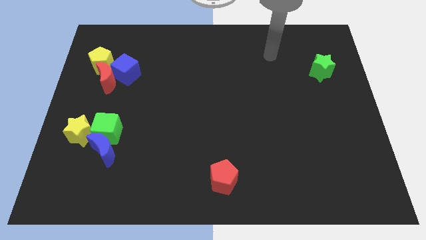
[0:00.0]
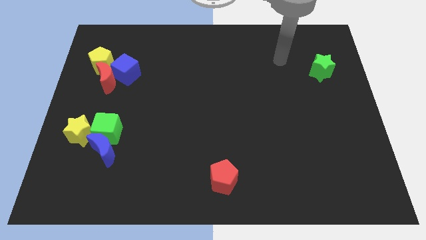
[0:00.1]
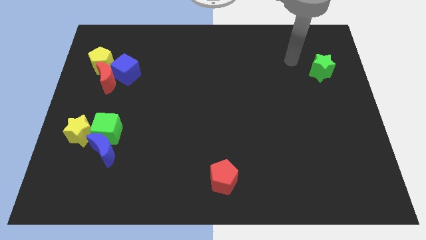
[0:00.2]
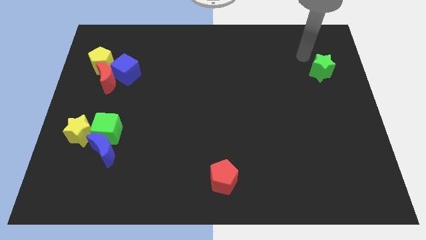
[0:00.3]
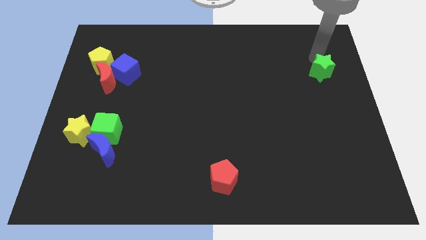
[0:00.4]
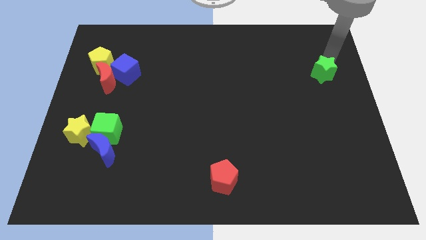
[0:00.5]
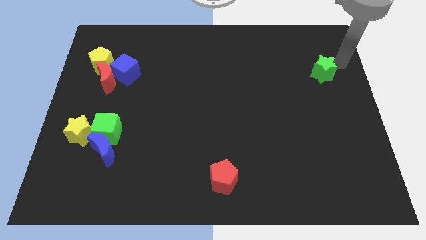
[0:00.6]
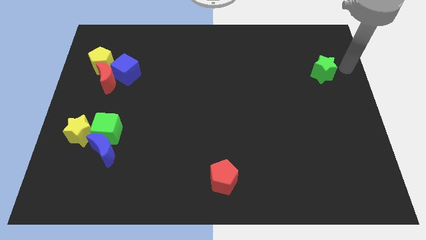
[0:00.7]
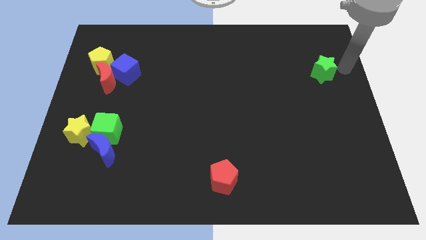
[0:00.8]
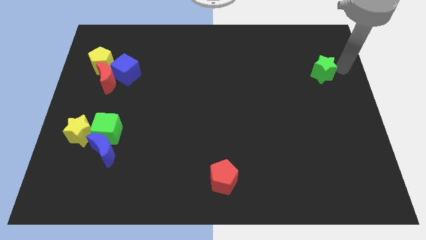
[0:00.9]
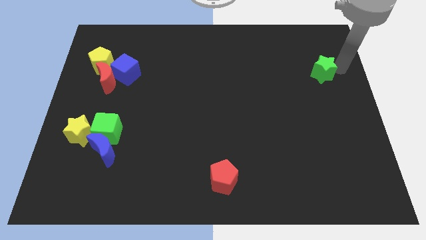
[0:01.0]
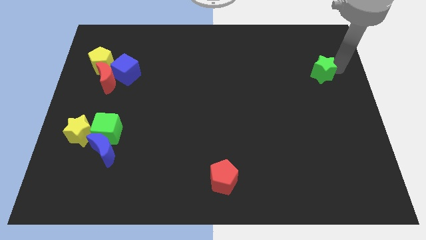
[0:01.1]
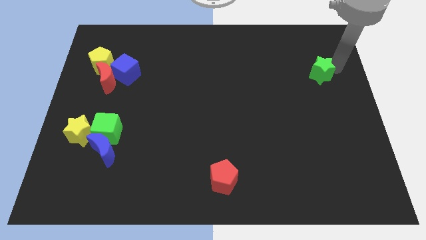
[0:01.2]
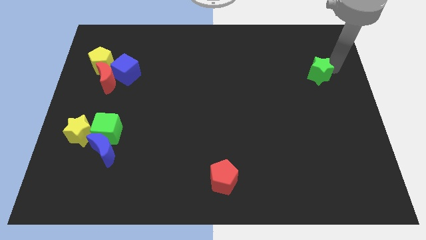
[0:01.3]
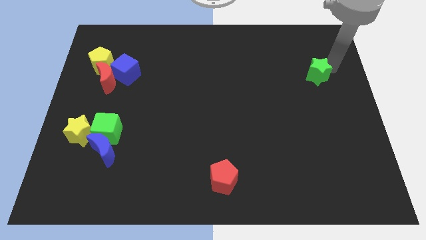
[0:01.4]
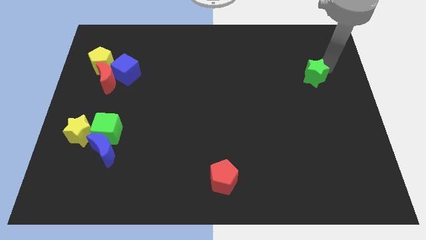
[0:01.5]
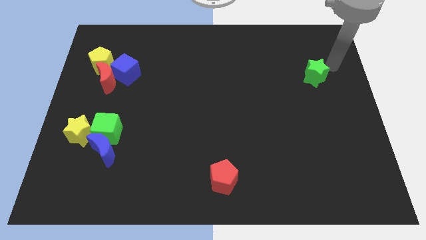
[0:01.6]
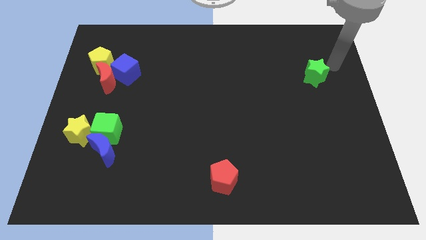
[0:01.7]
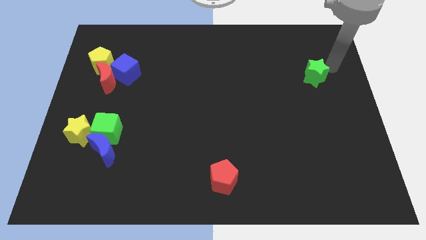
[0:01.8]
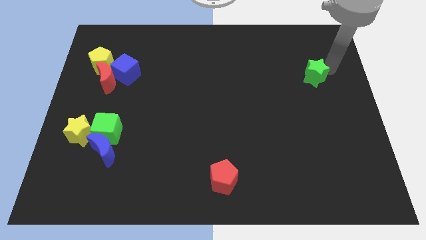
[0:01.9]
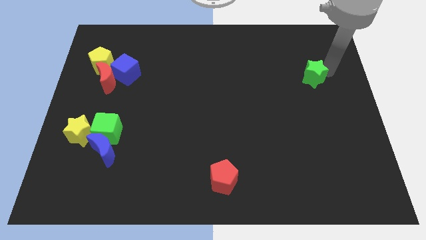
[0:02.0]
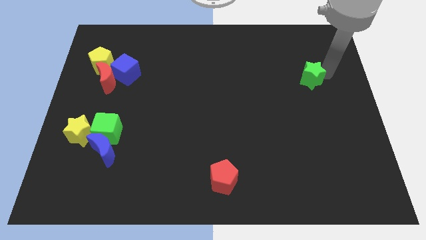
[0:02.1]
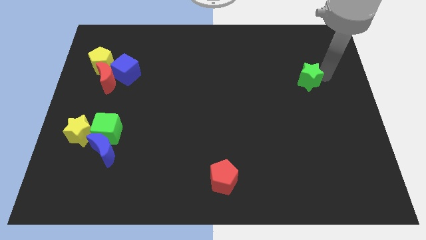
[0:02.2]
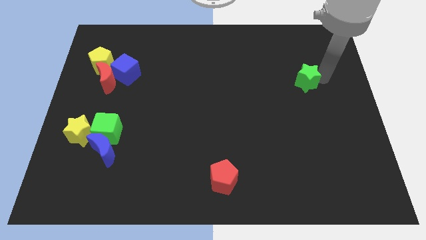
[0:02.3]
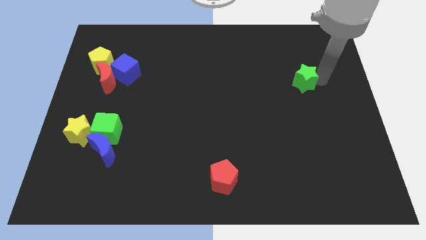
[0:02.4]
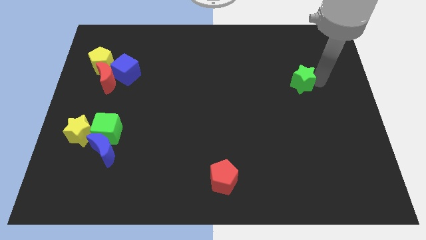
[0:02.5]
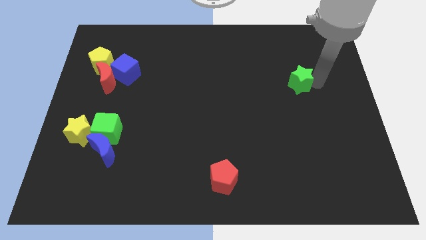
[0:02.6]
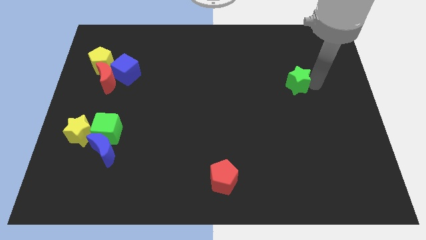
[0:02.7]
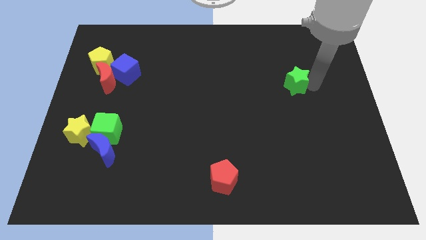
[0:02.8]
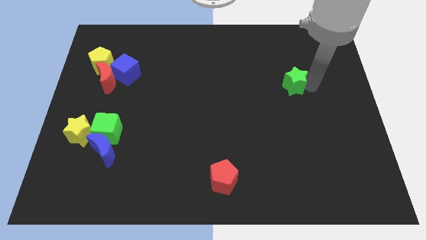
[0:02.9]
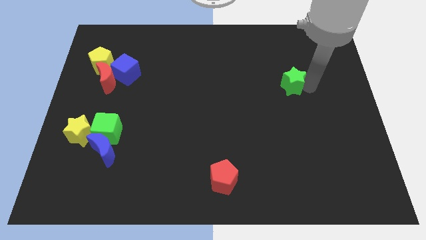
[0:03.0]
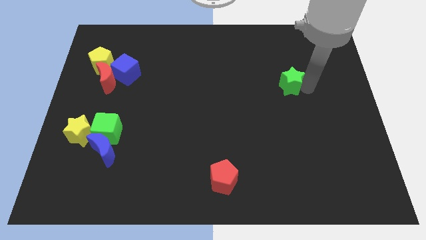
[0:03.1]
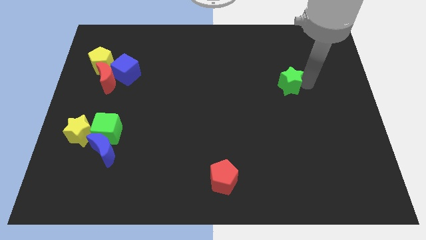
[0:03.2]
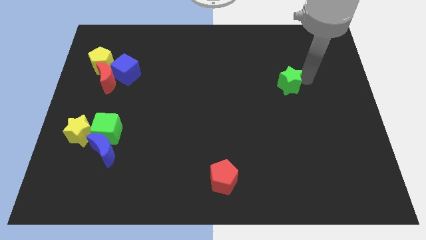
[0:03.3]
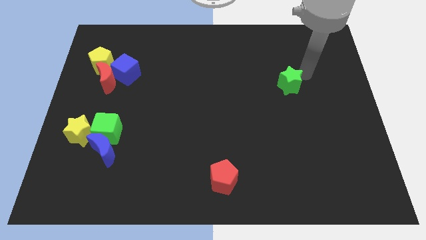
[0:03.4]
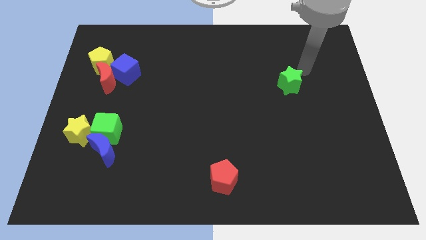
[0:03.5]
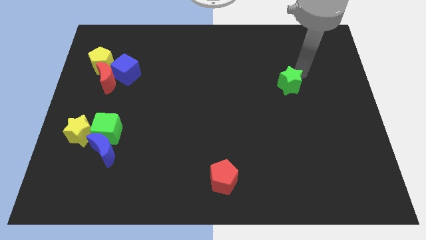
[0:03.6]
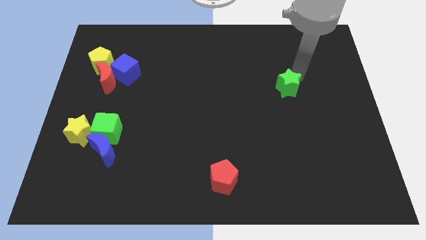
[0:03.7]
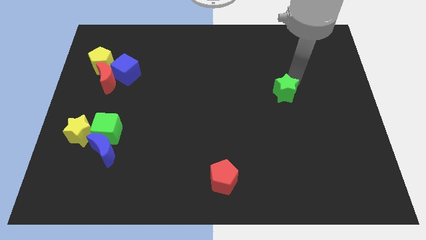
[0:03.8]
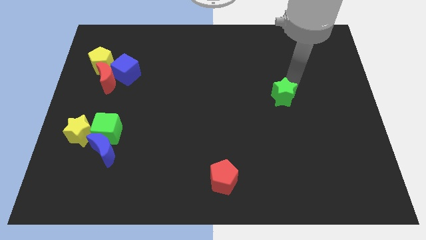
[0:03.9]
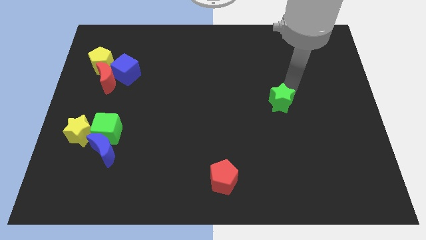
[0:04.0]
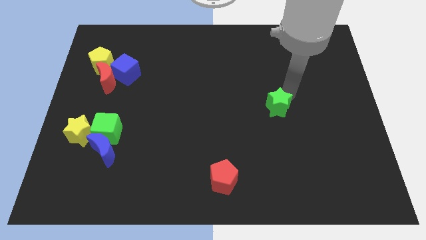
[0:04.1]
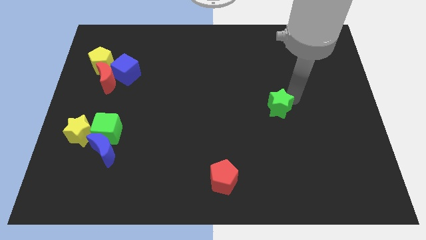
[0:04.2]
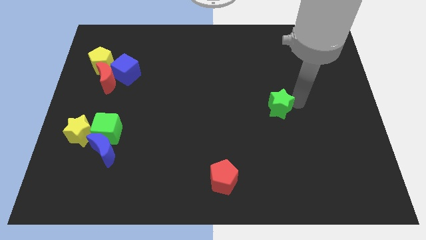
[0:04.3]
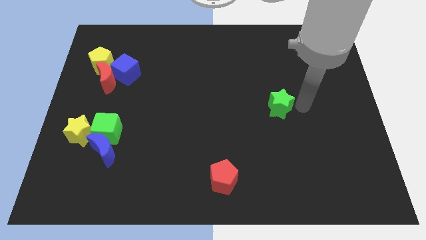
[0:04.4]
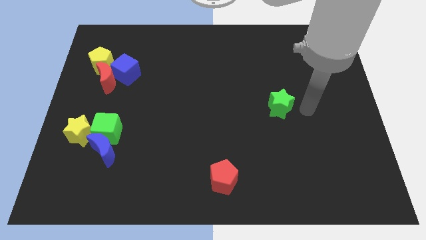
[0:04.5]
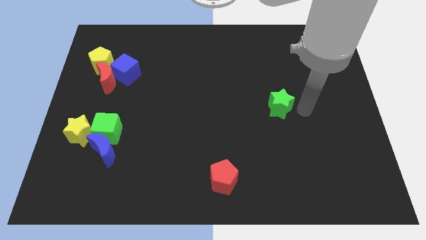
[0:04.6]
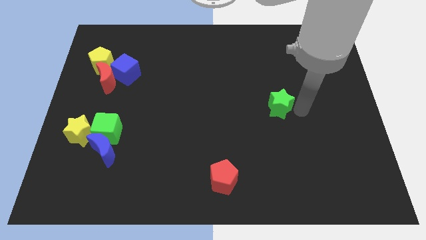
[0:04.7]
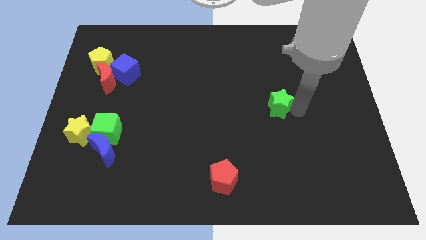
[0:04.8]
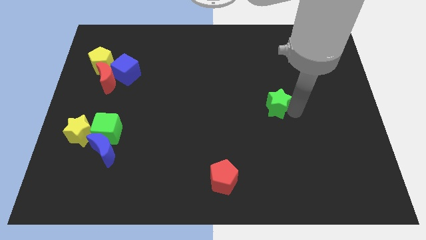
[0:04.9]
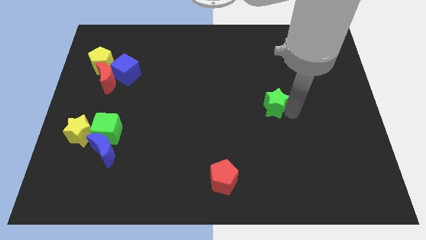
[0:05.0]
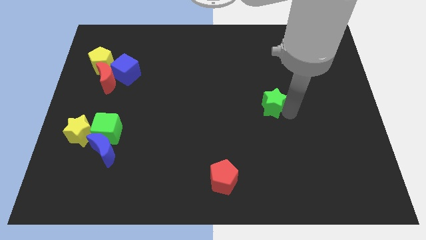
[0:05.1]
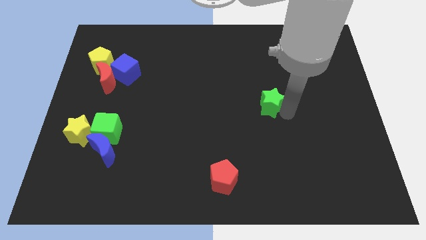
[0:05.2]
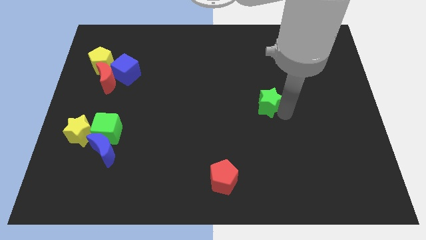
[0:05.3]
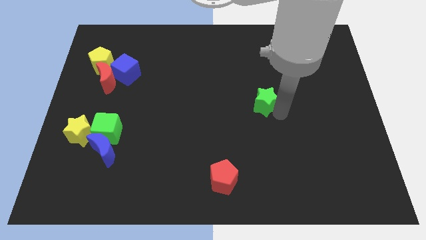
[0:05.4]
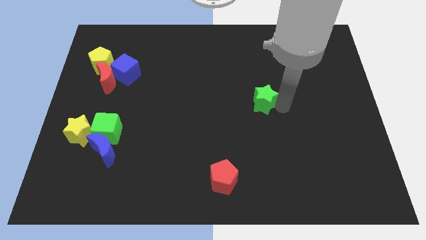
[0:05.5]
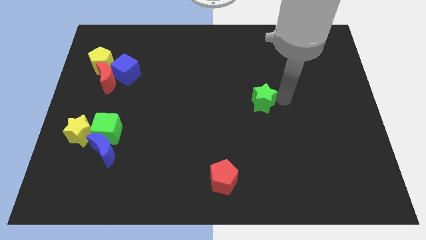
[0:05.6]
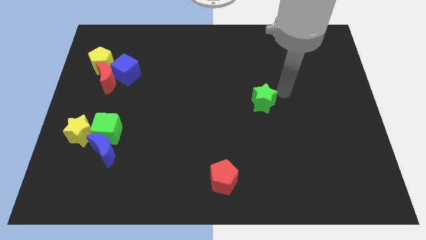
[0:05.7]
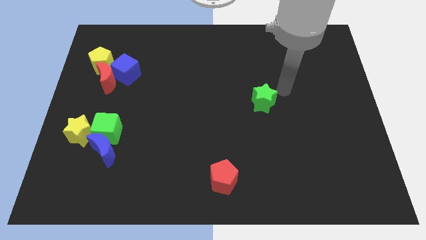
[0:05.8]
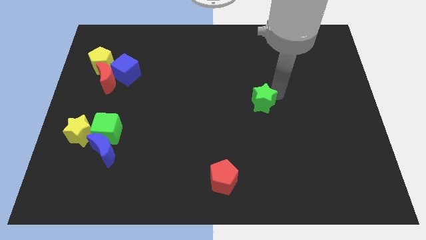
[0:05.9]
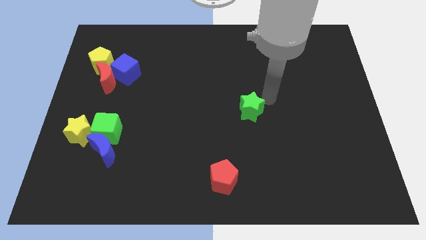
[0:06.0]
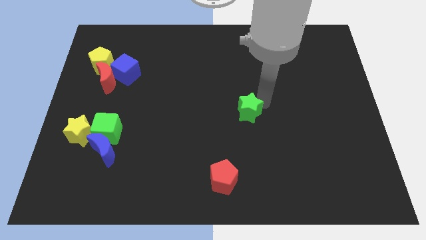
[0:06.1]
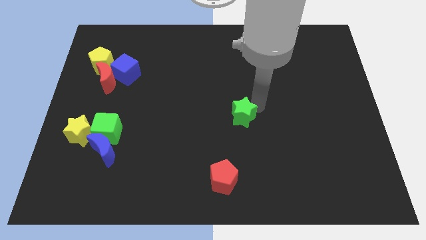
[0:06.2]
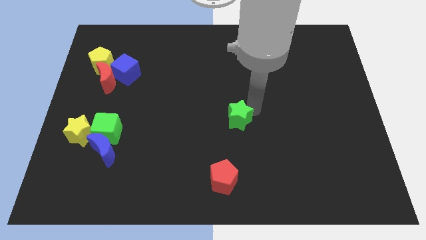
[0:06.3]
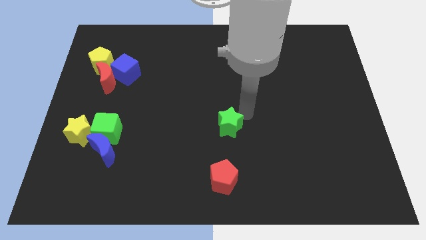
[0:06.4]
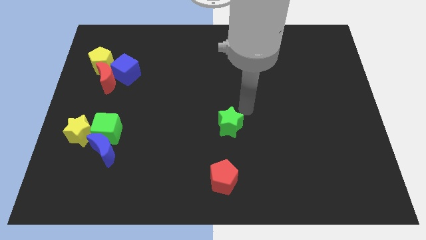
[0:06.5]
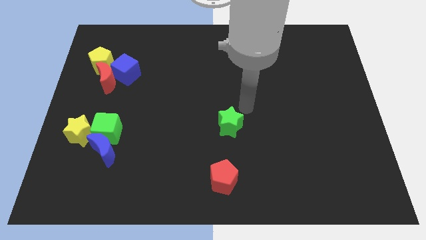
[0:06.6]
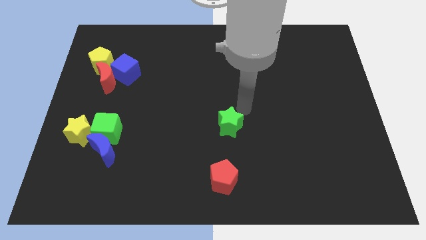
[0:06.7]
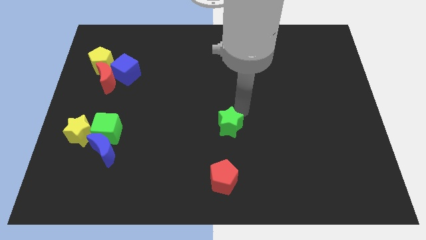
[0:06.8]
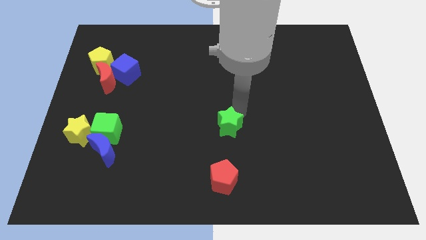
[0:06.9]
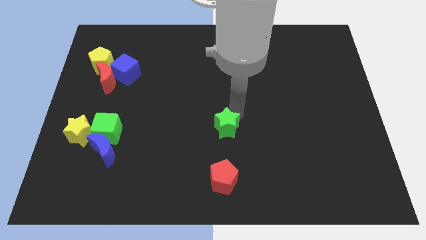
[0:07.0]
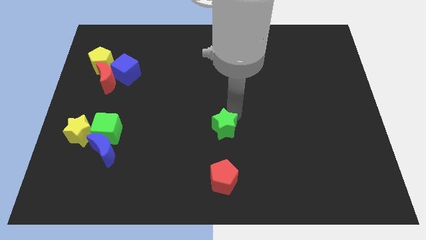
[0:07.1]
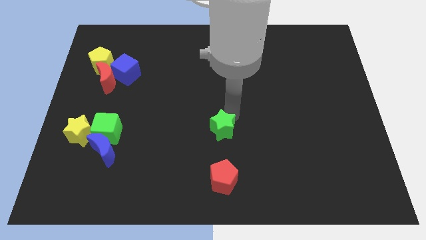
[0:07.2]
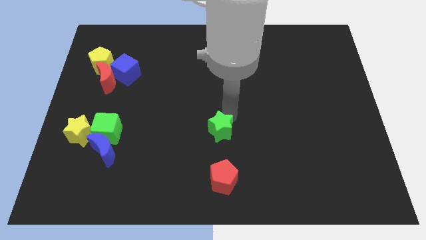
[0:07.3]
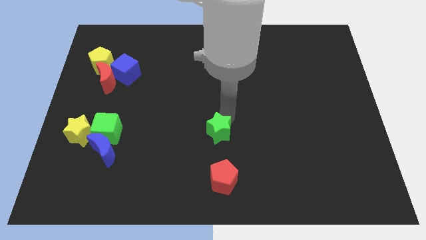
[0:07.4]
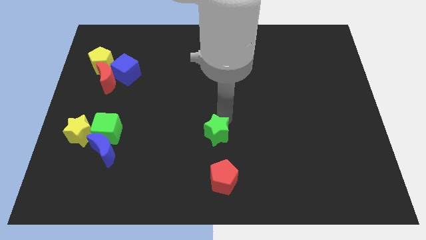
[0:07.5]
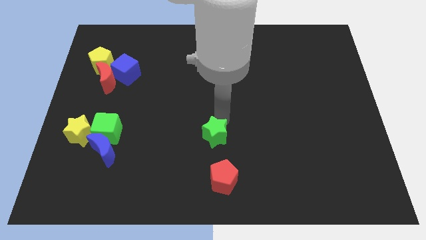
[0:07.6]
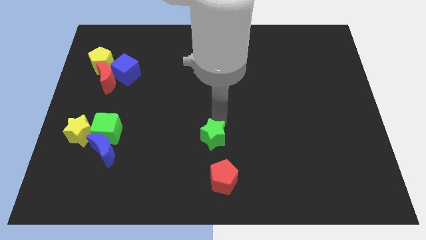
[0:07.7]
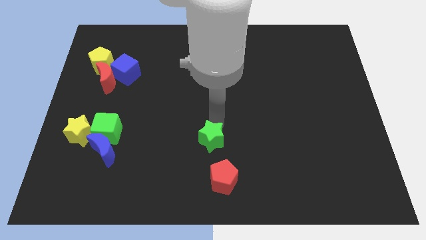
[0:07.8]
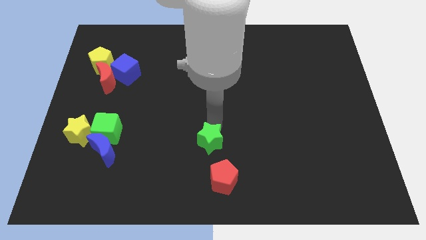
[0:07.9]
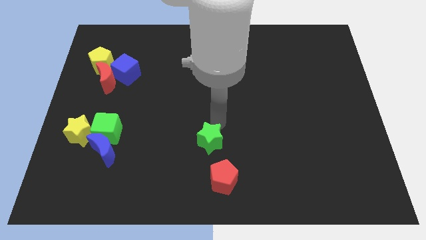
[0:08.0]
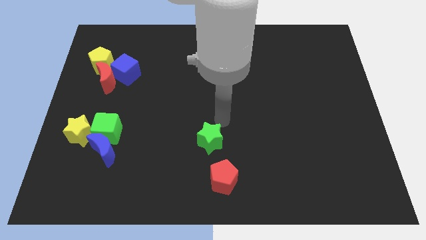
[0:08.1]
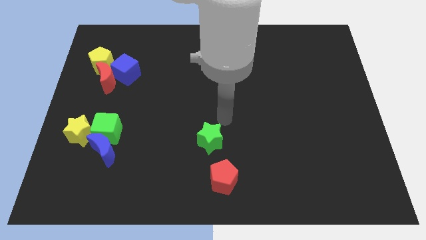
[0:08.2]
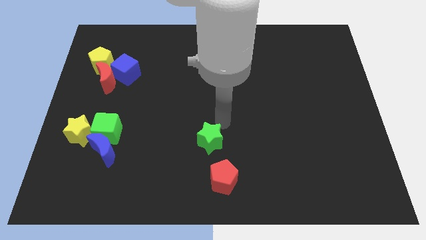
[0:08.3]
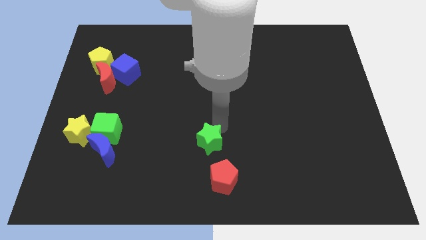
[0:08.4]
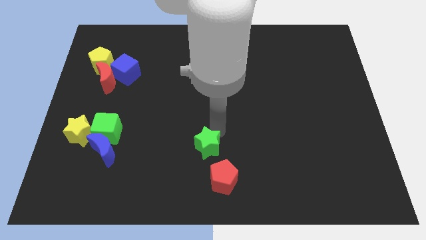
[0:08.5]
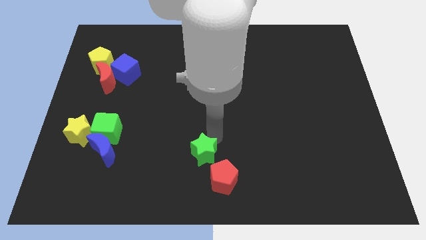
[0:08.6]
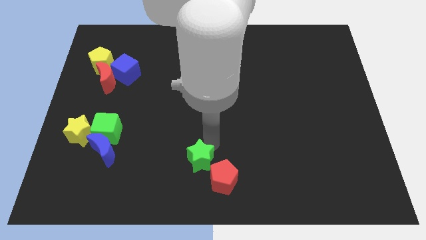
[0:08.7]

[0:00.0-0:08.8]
put the green star left of the red pentagon
